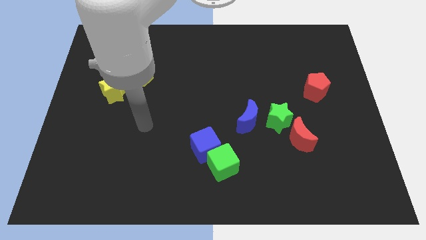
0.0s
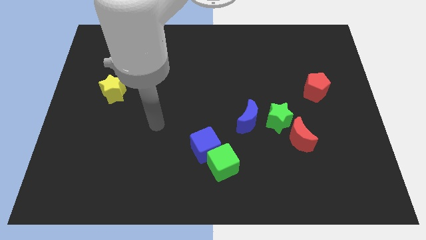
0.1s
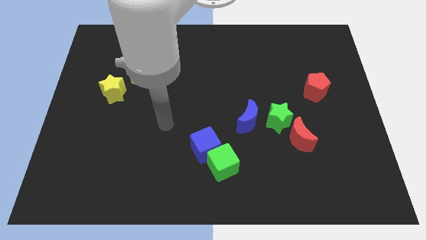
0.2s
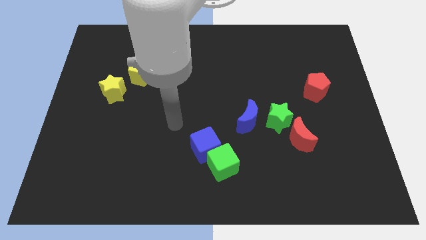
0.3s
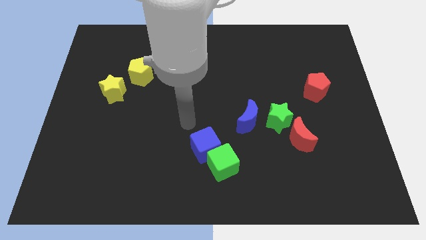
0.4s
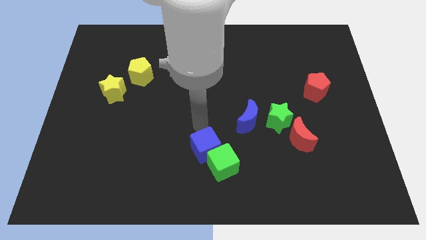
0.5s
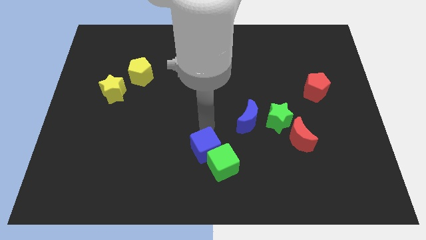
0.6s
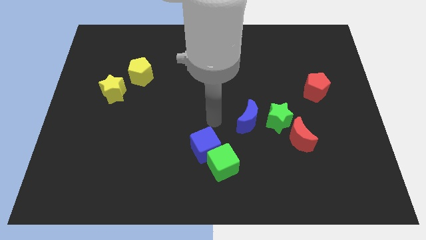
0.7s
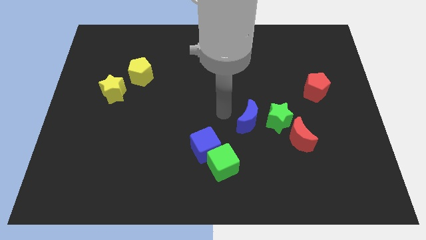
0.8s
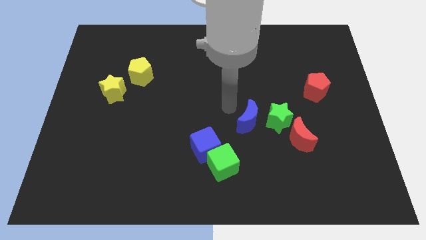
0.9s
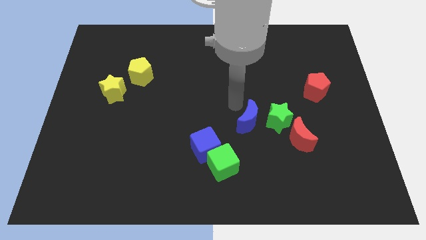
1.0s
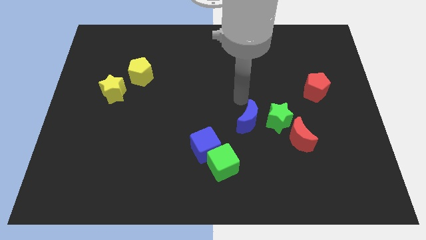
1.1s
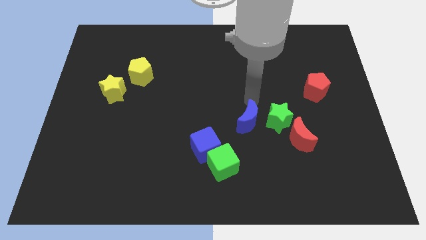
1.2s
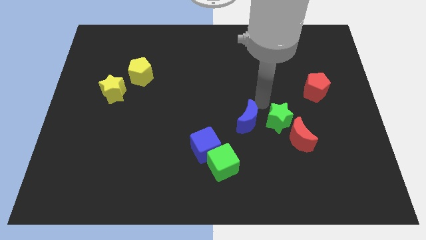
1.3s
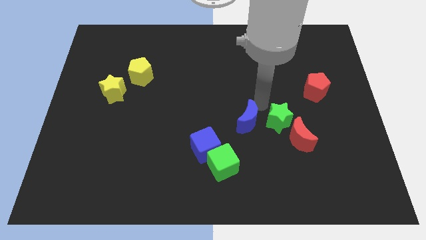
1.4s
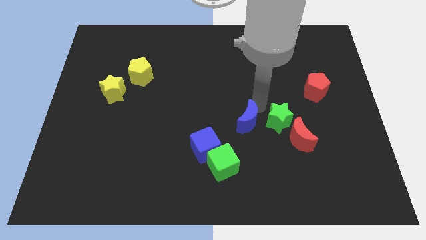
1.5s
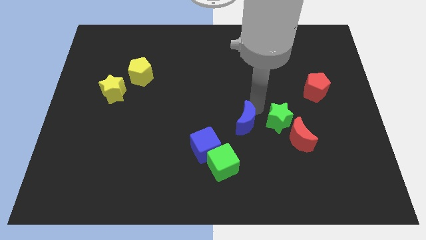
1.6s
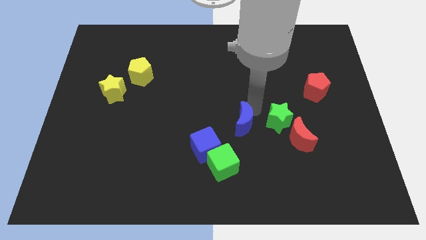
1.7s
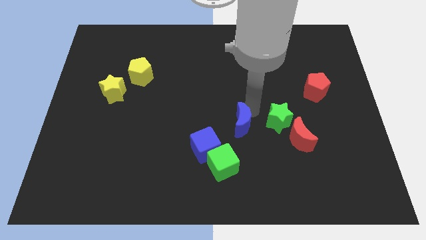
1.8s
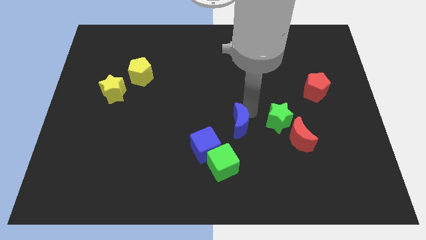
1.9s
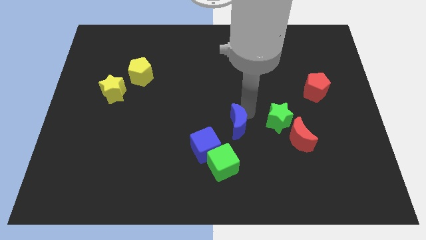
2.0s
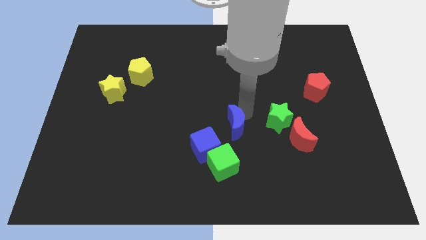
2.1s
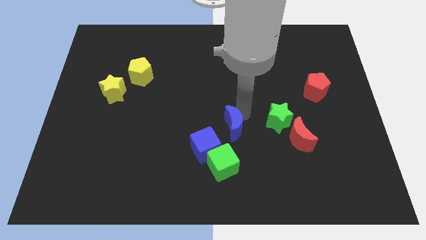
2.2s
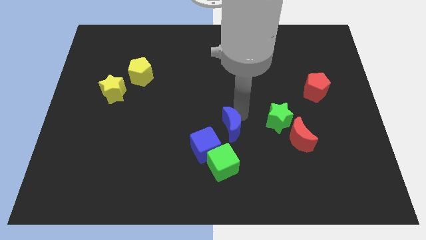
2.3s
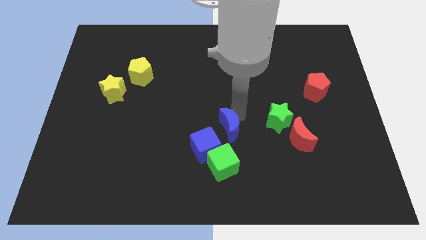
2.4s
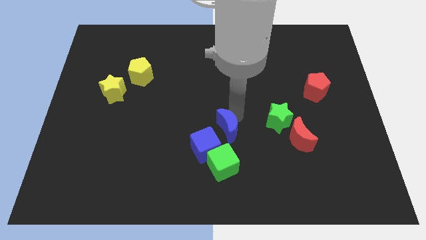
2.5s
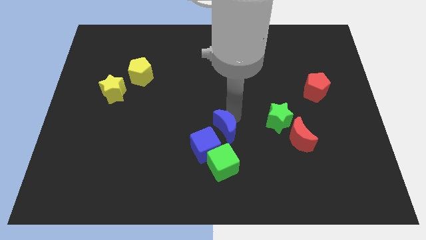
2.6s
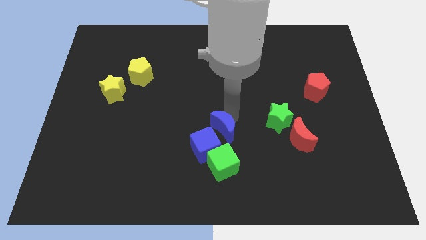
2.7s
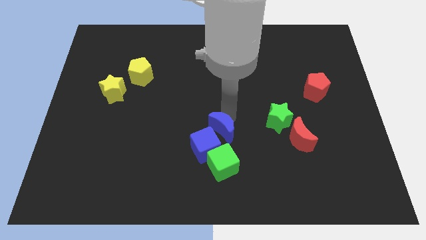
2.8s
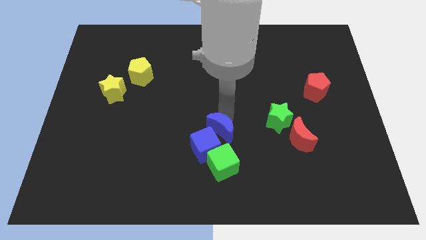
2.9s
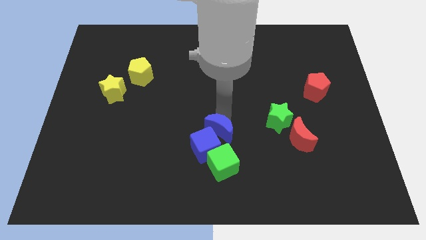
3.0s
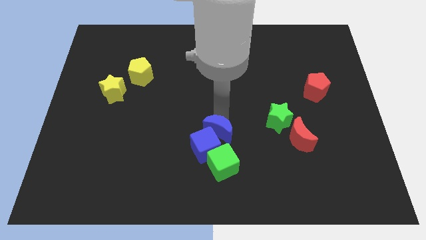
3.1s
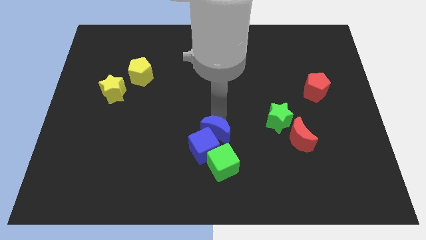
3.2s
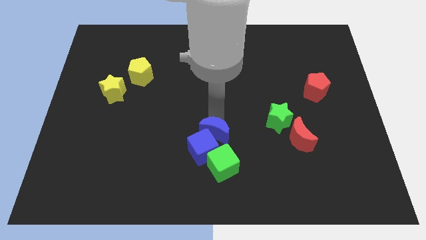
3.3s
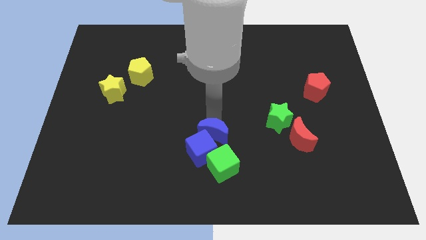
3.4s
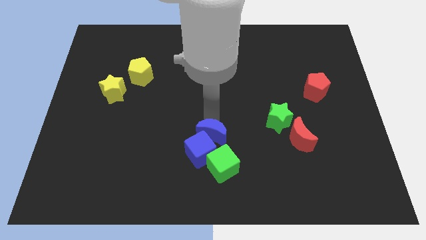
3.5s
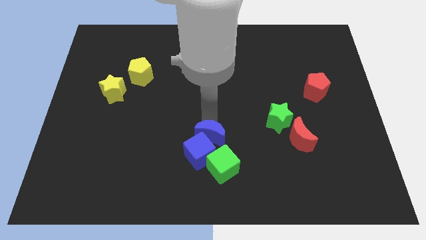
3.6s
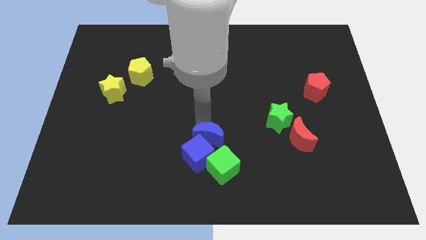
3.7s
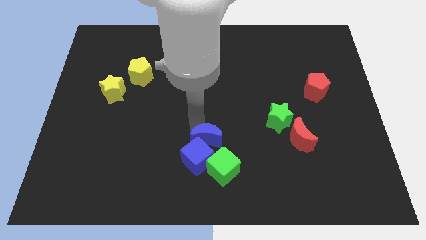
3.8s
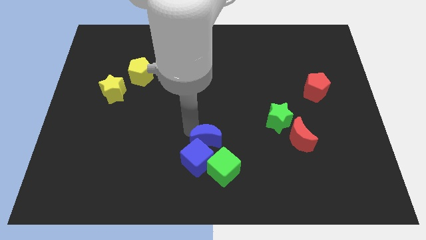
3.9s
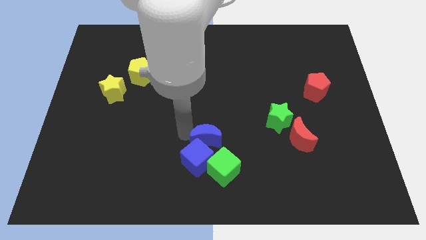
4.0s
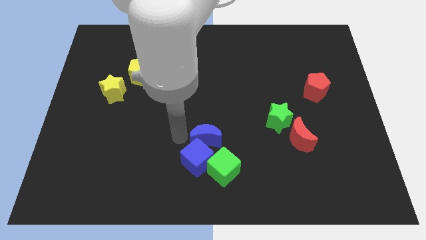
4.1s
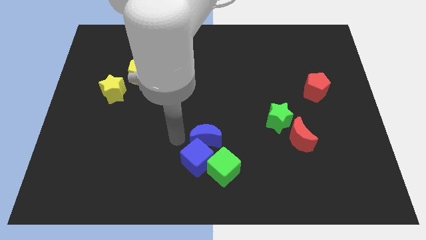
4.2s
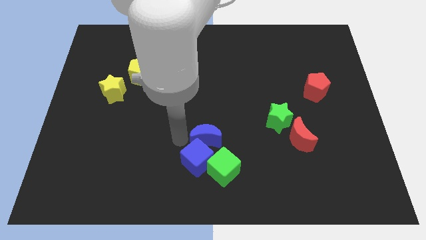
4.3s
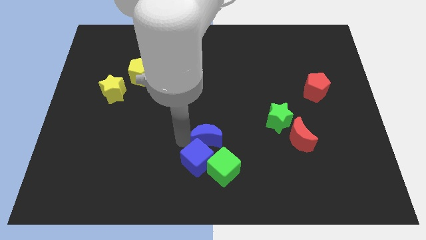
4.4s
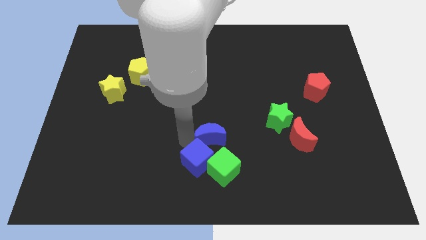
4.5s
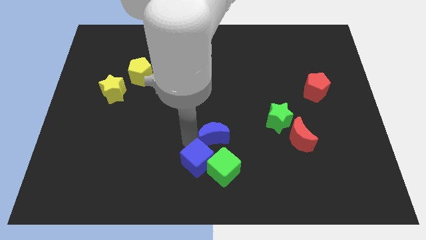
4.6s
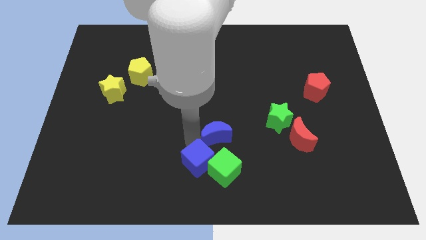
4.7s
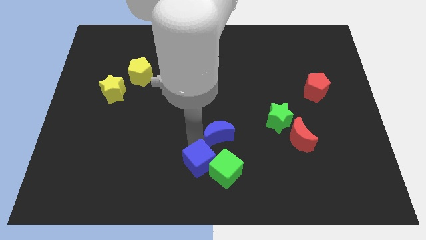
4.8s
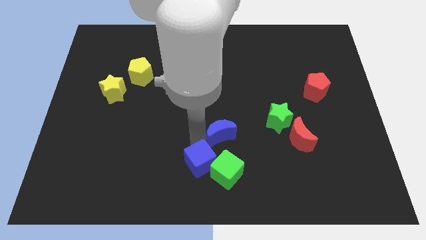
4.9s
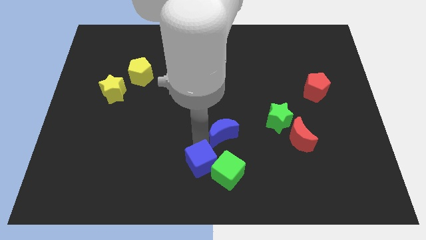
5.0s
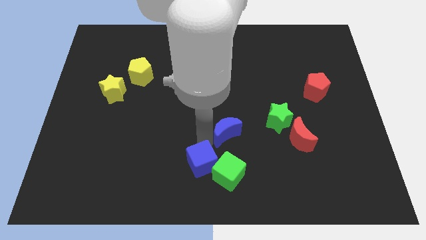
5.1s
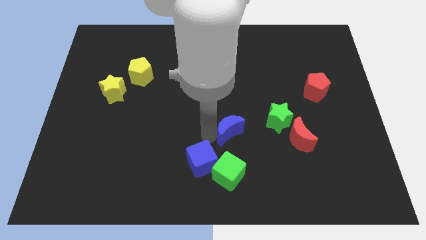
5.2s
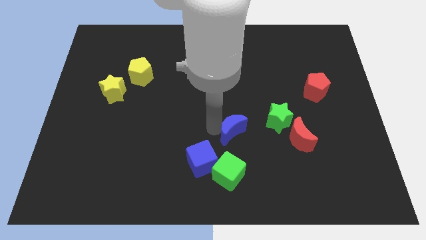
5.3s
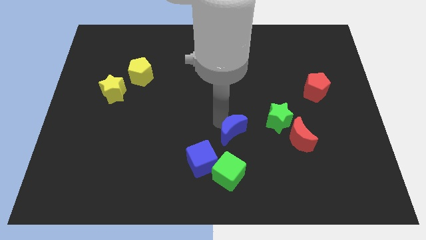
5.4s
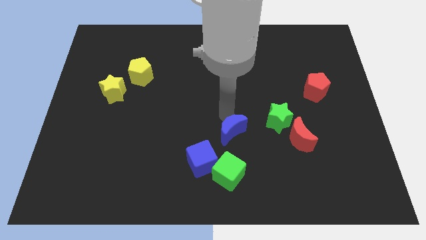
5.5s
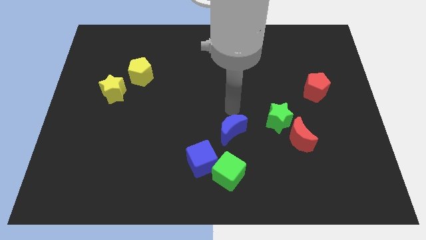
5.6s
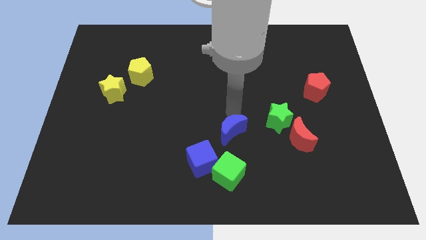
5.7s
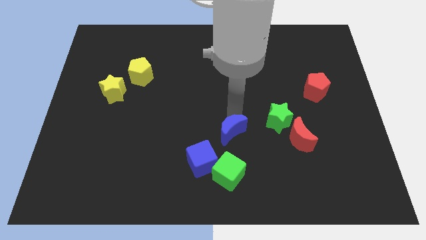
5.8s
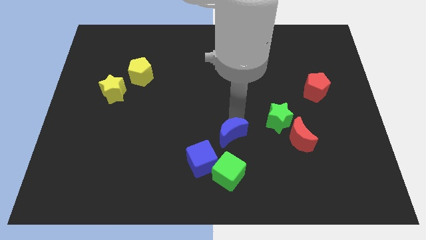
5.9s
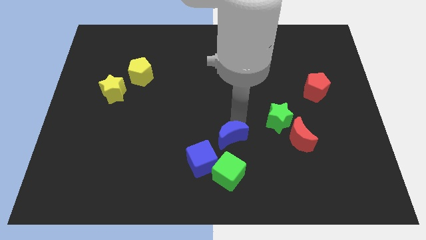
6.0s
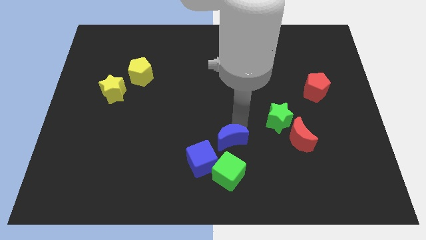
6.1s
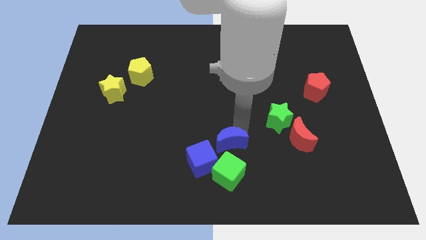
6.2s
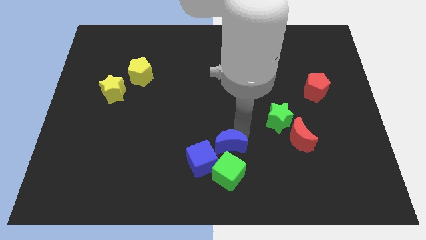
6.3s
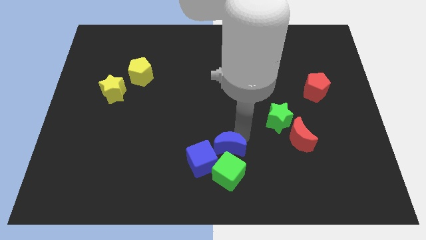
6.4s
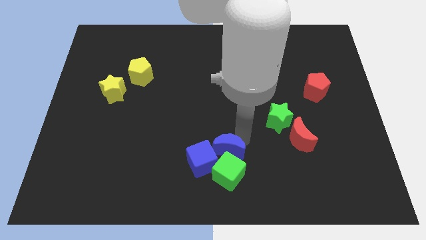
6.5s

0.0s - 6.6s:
push the blue moon next to the green cube

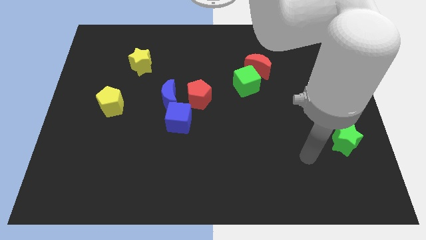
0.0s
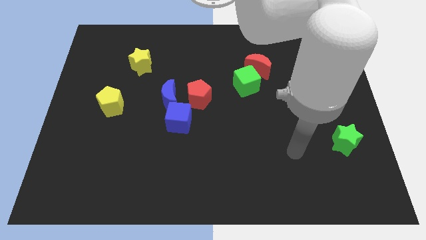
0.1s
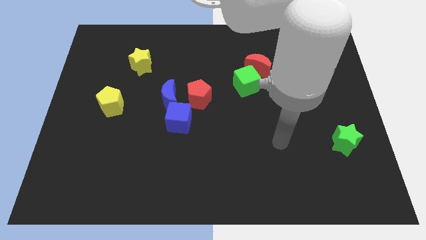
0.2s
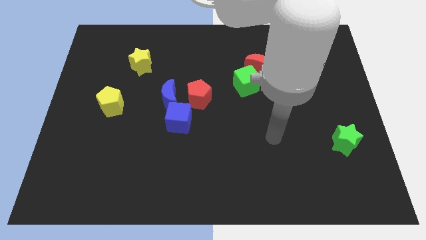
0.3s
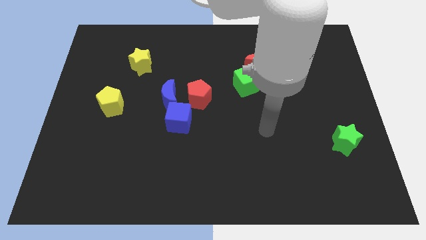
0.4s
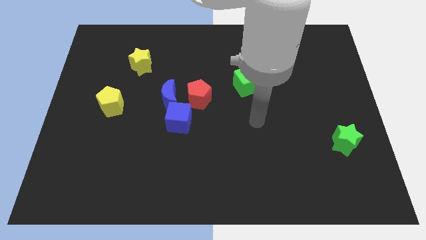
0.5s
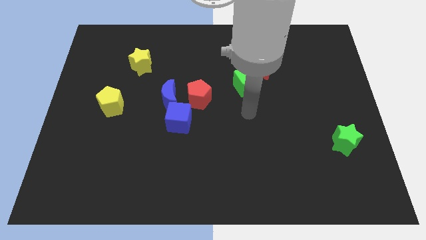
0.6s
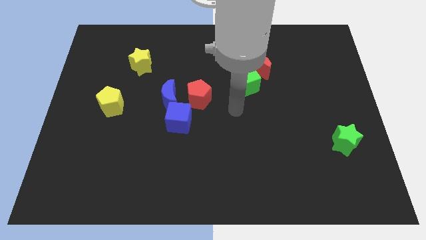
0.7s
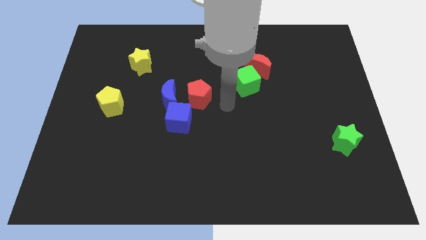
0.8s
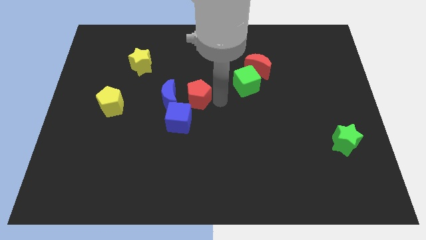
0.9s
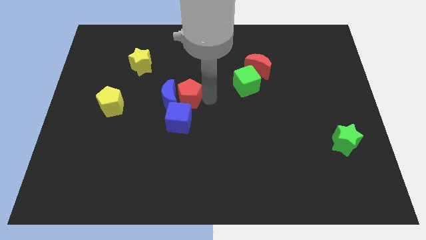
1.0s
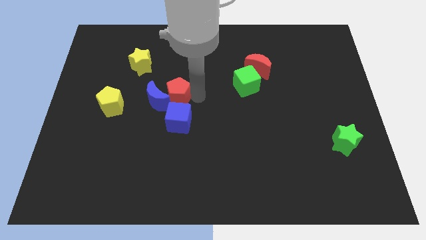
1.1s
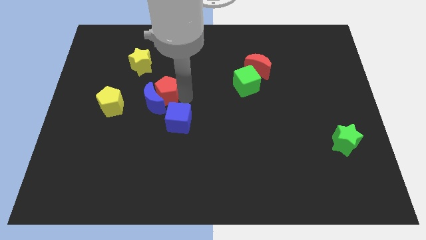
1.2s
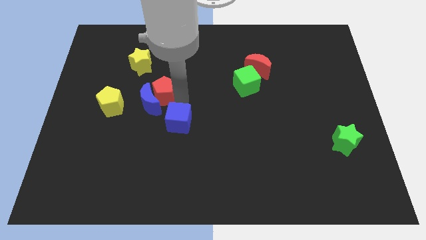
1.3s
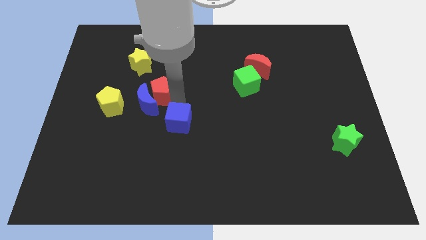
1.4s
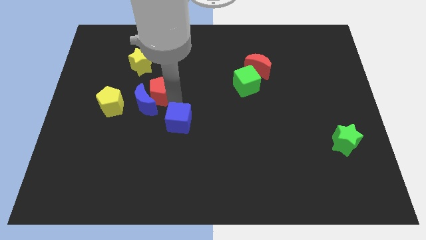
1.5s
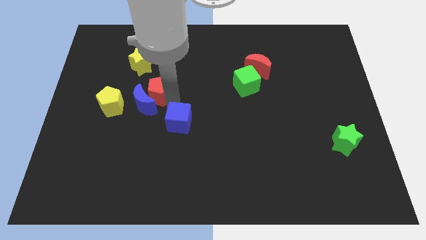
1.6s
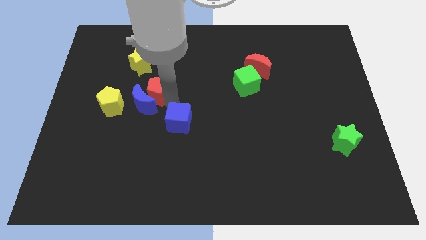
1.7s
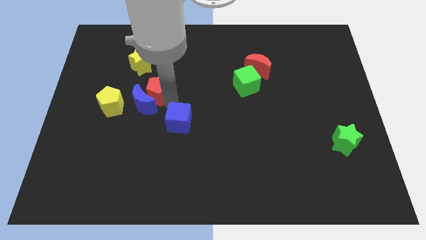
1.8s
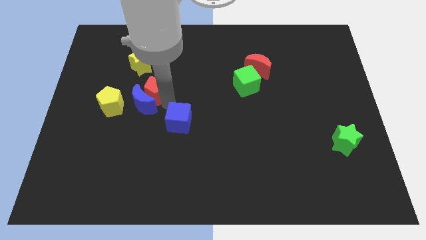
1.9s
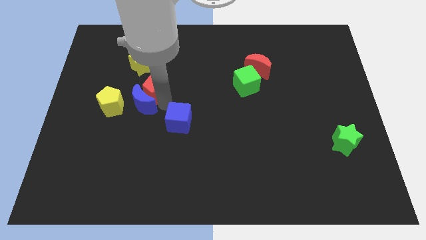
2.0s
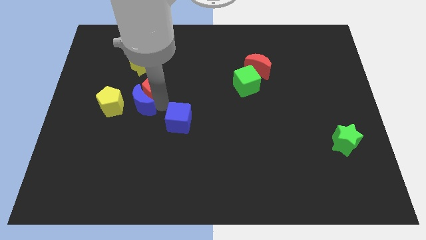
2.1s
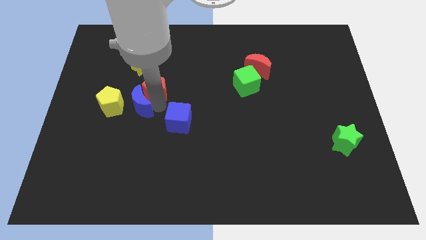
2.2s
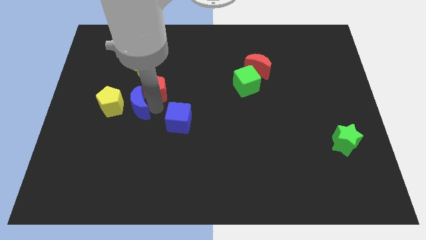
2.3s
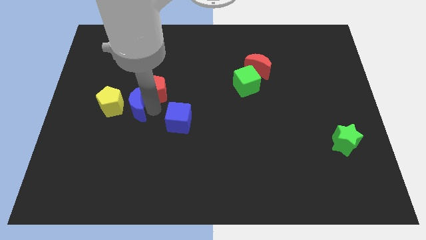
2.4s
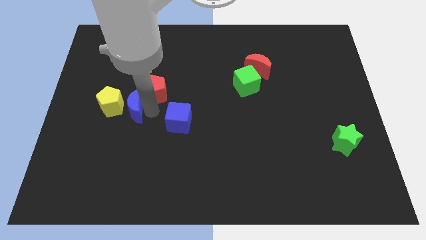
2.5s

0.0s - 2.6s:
put the blue moon close to the yellow pentagon
